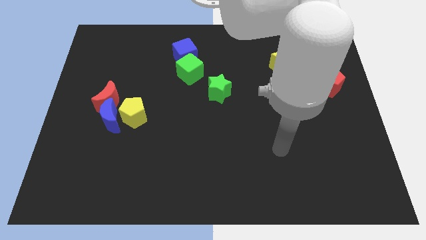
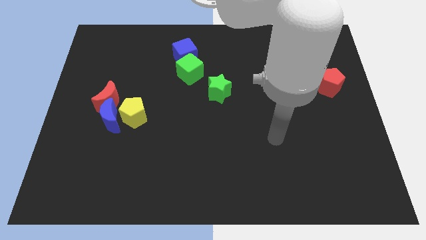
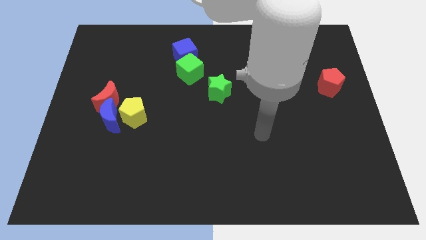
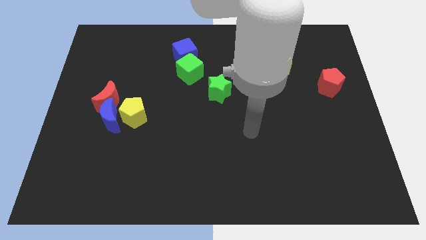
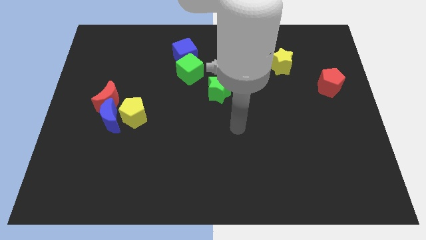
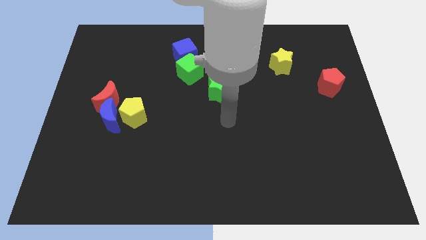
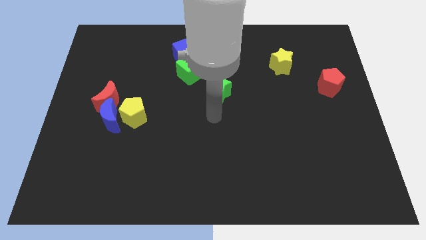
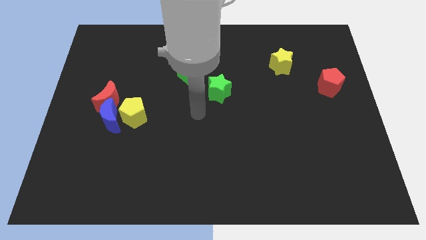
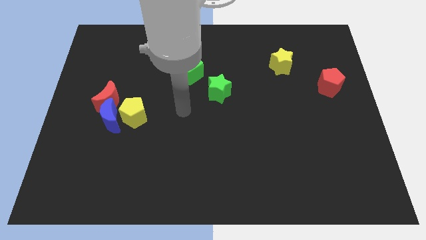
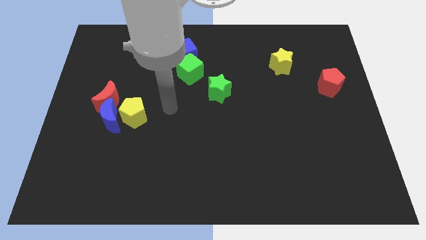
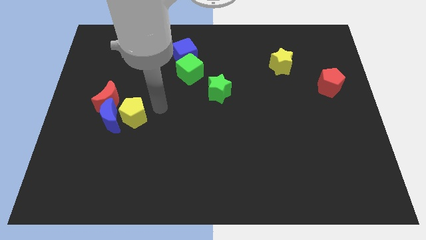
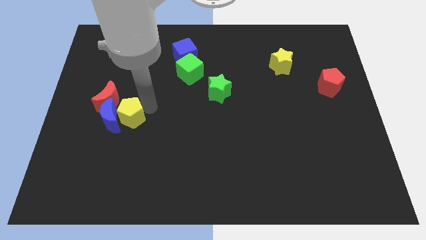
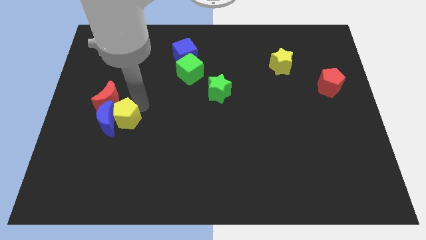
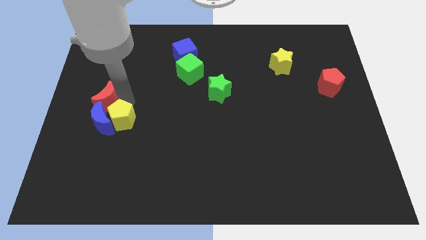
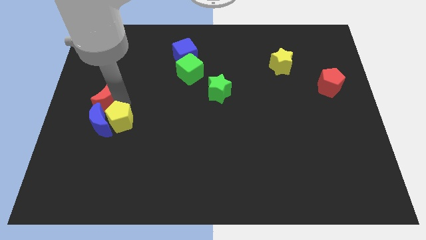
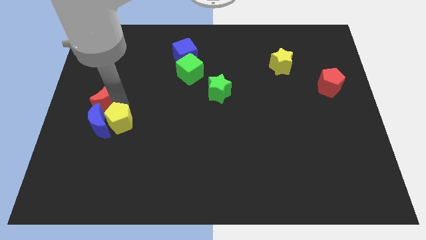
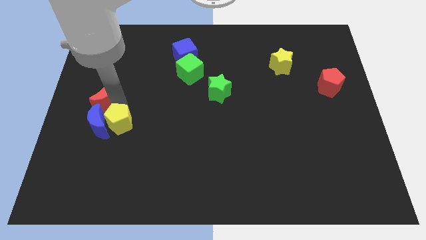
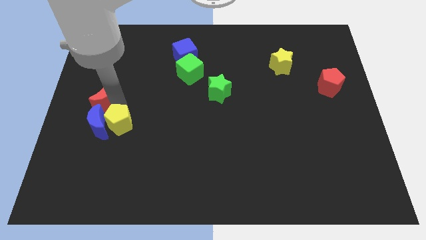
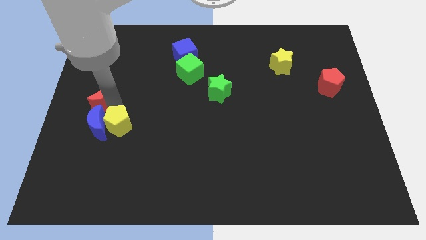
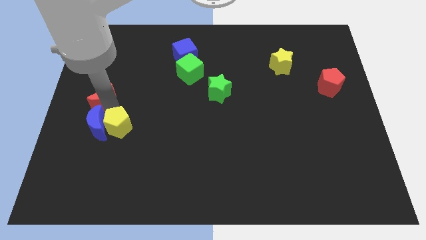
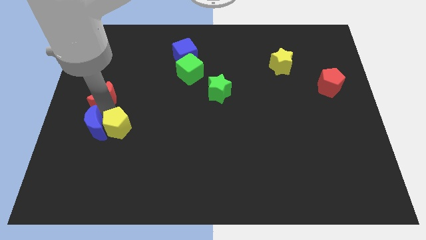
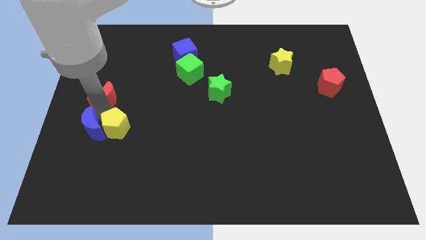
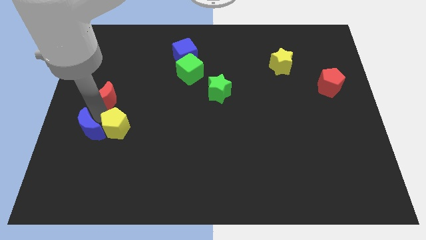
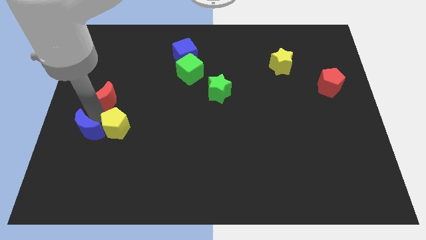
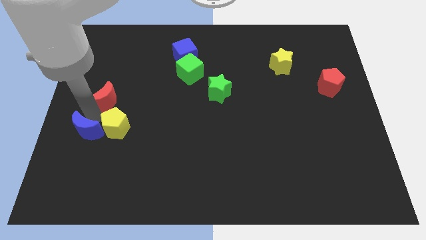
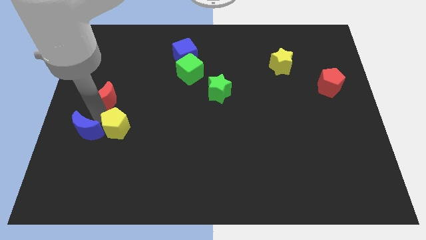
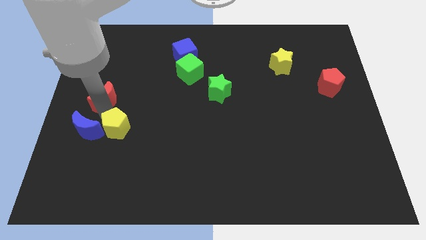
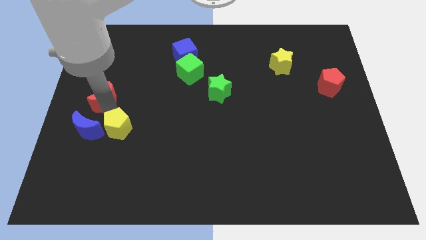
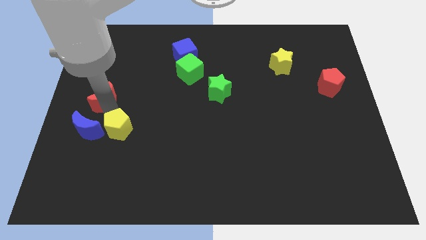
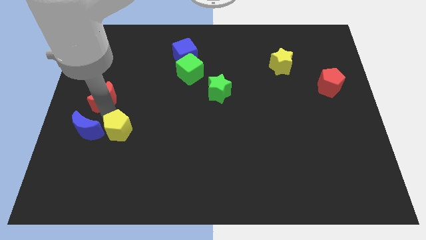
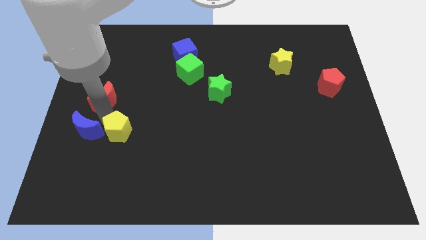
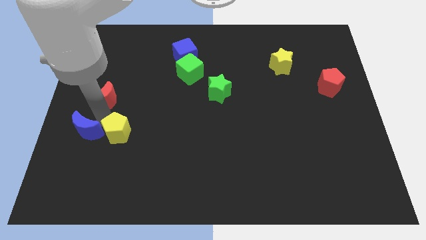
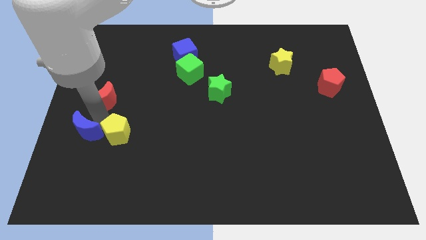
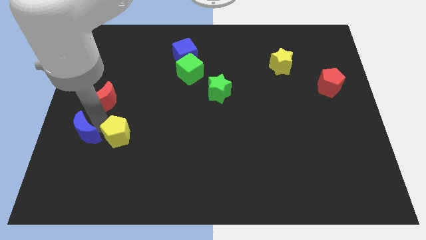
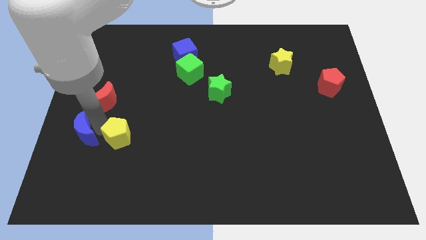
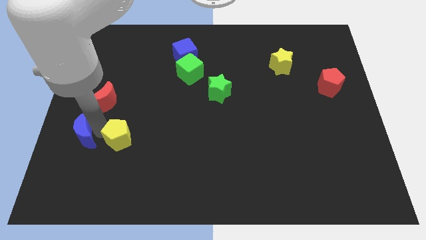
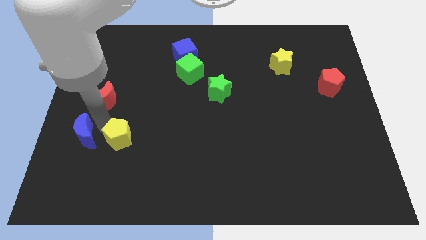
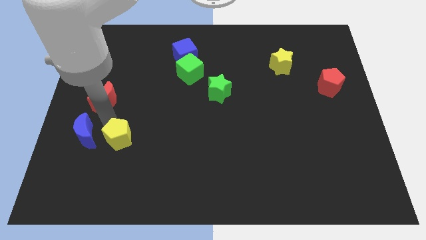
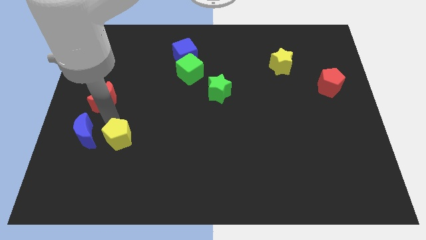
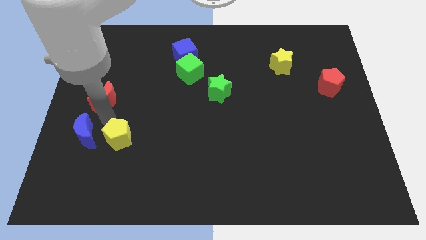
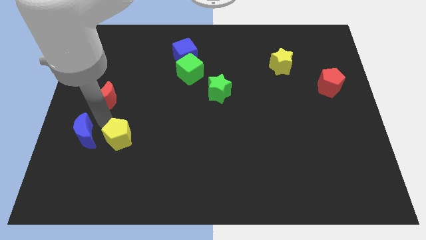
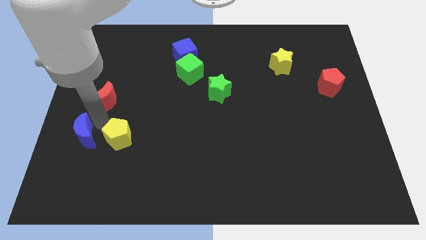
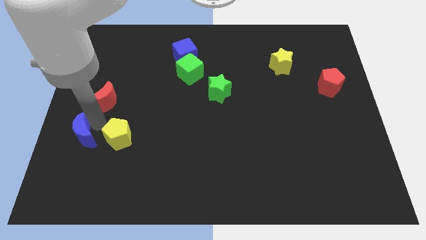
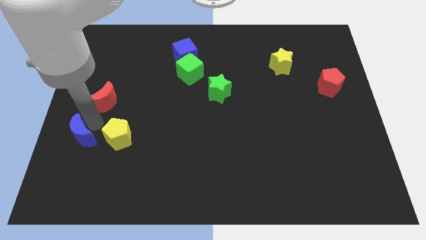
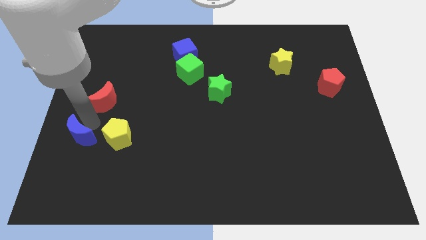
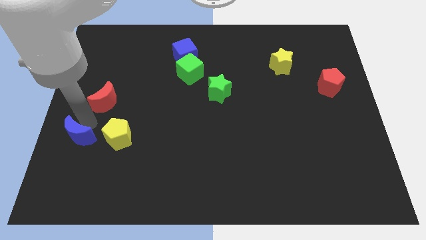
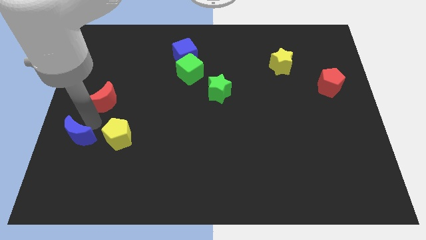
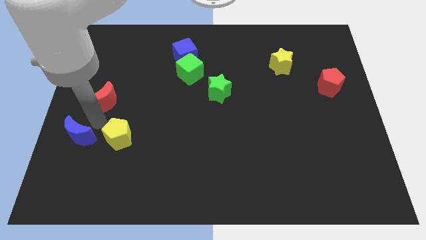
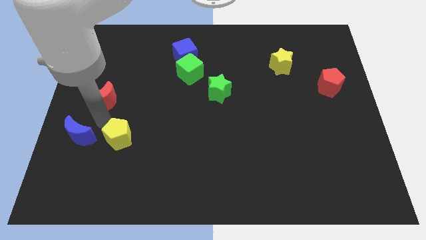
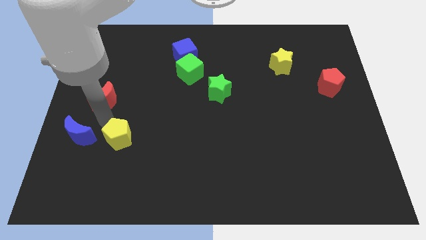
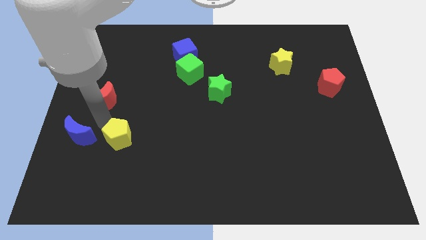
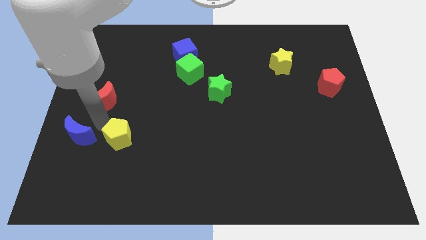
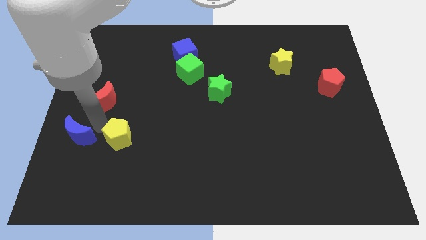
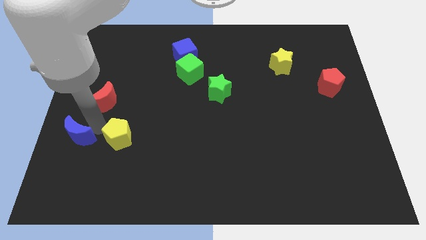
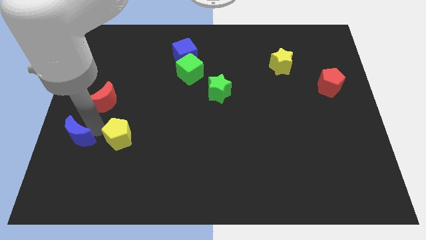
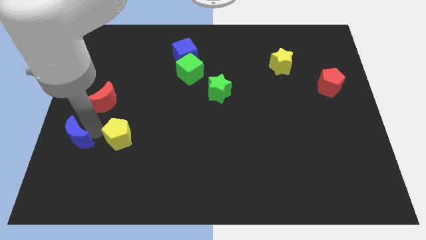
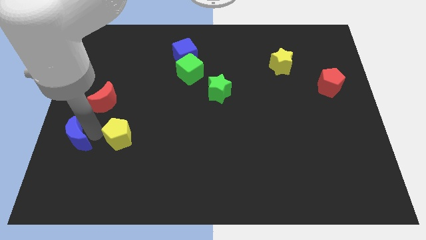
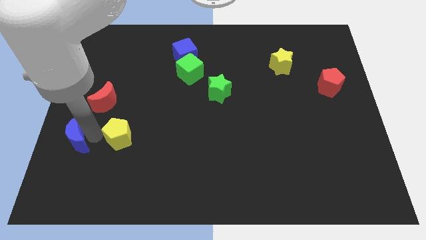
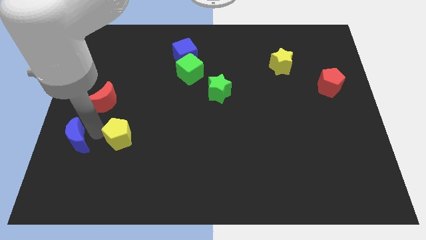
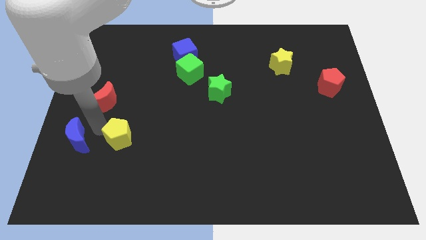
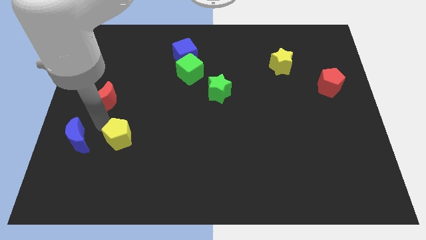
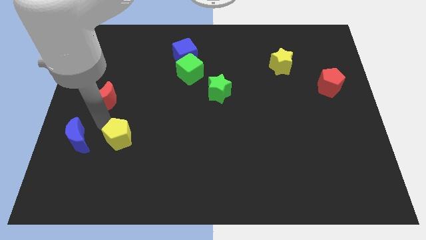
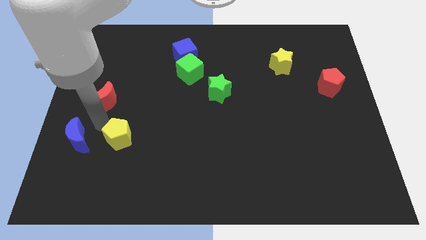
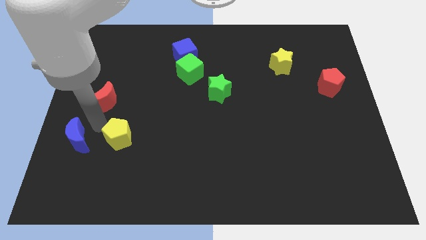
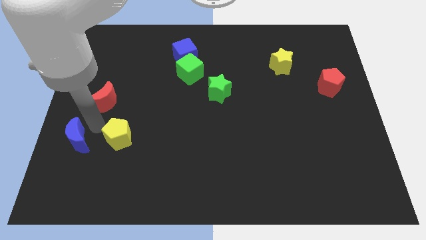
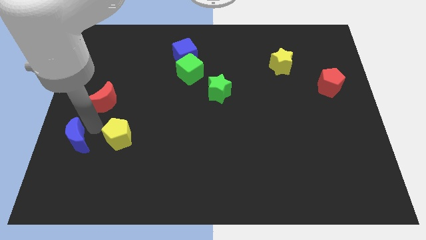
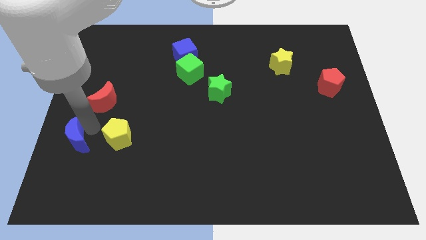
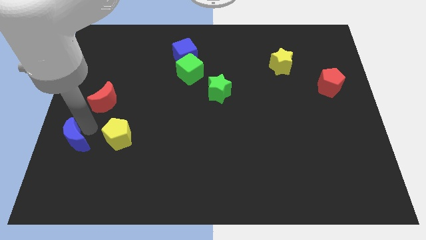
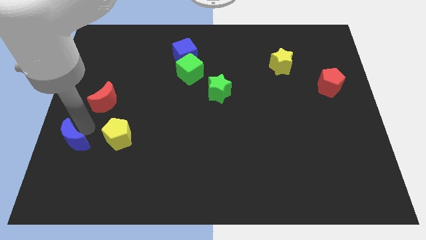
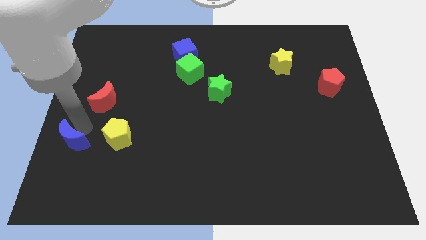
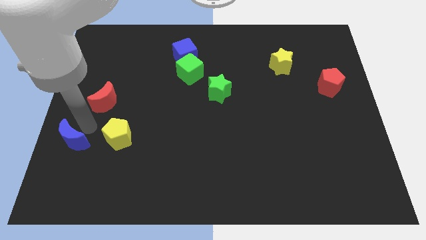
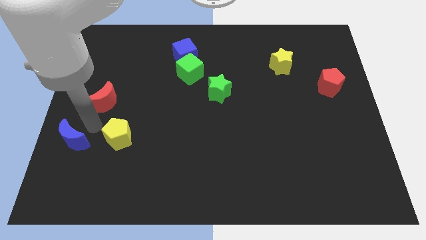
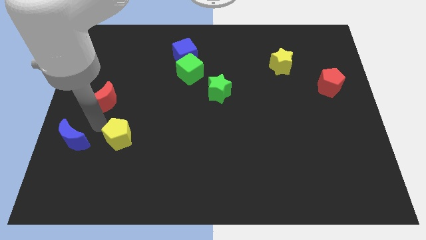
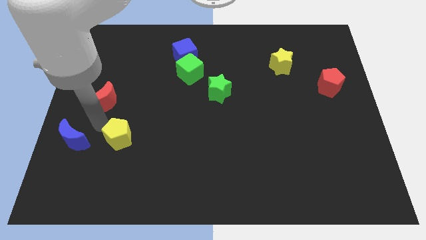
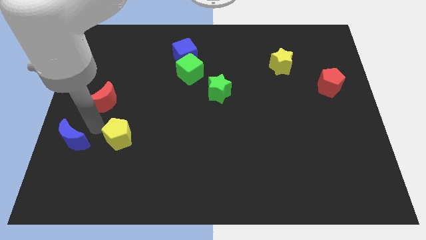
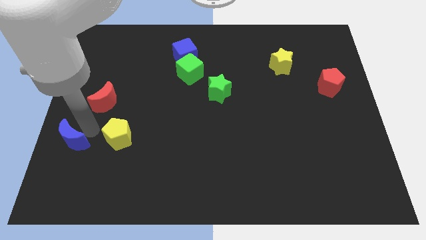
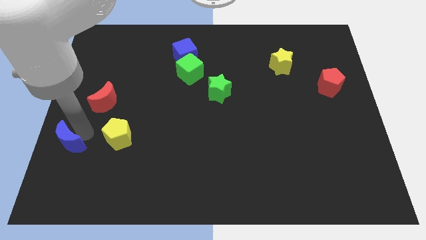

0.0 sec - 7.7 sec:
separate the blue moon from the red moon and yellow pentagon

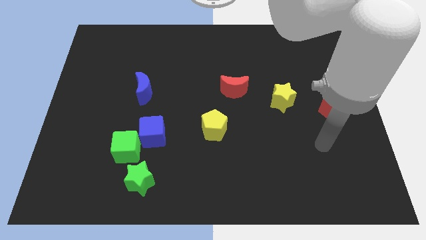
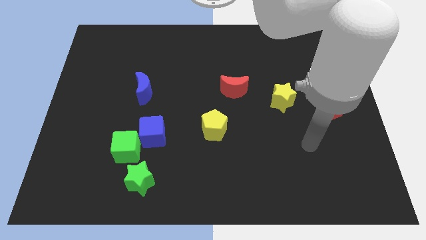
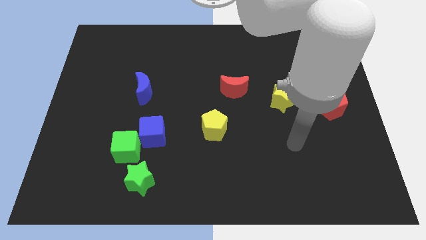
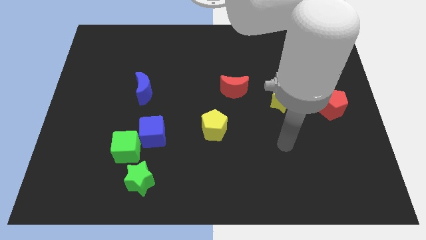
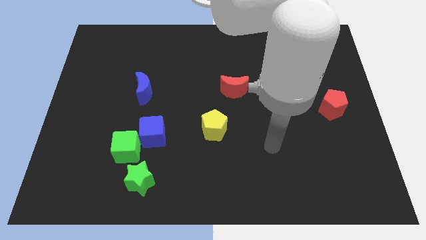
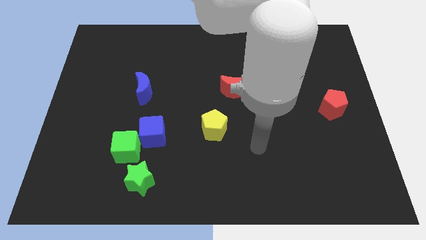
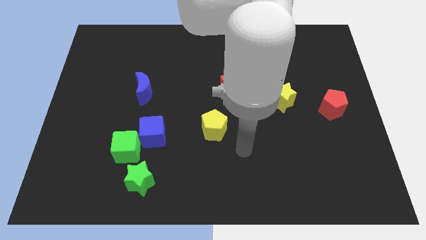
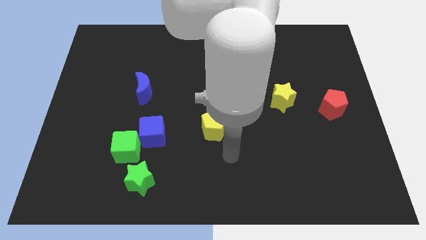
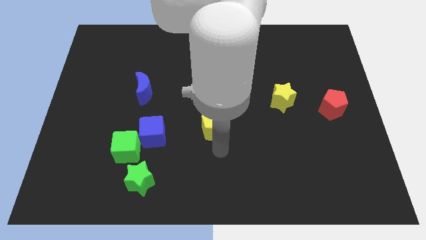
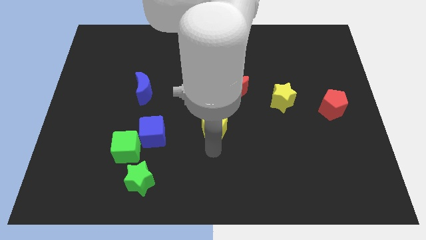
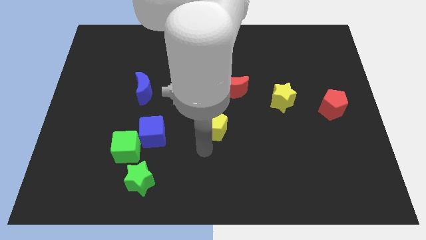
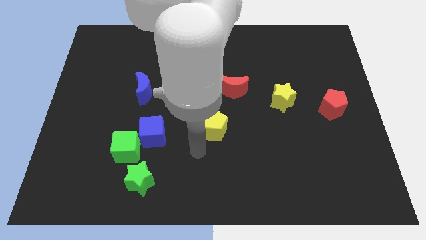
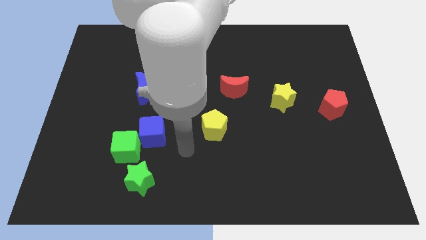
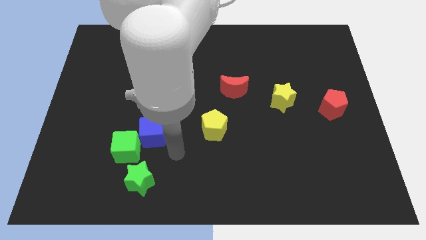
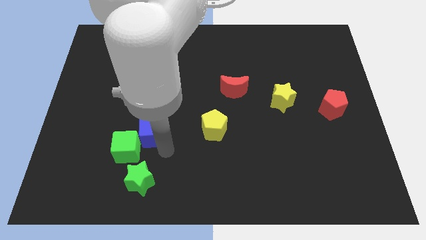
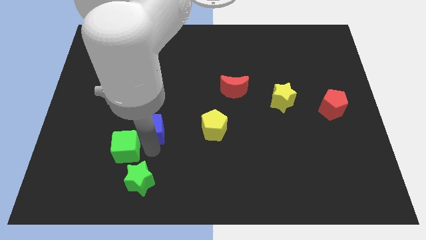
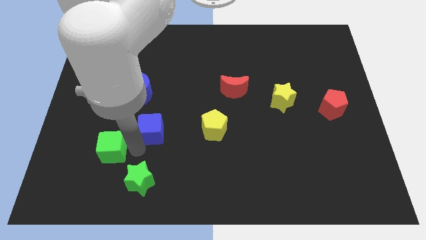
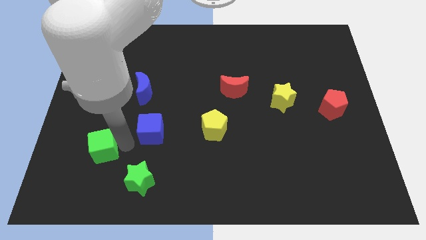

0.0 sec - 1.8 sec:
pull the blue cube apart from the green cube
